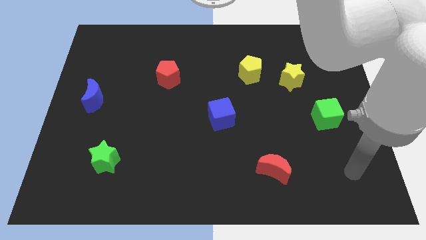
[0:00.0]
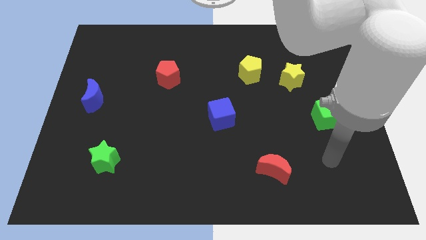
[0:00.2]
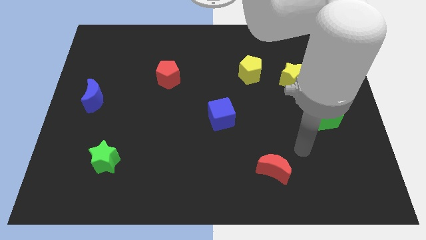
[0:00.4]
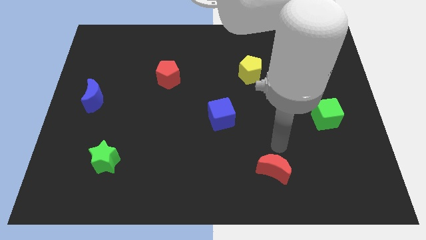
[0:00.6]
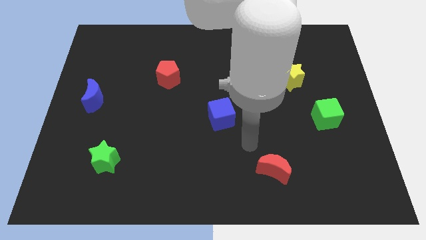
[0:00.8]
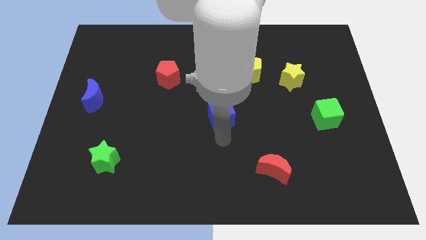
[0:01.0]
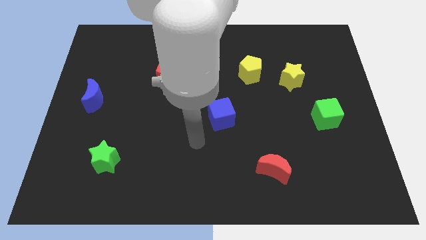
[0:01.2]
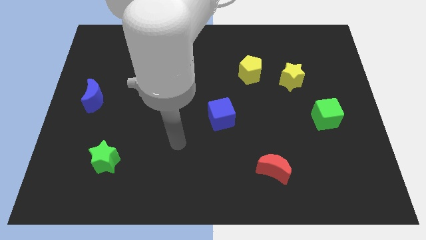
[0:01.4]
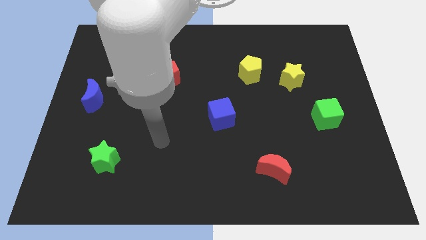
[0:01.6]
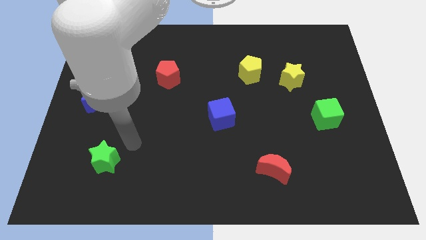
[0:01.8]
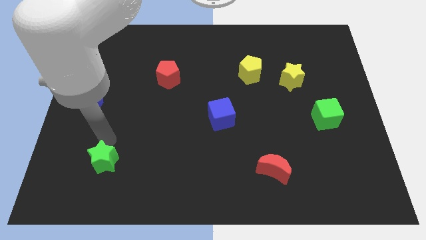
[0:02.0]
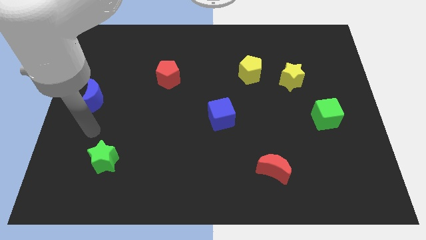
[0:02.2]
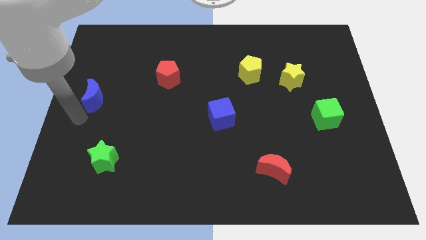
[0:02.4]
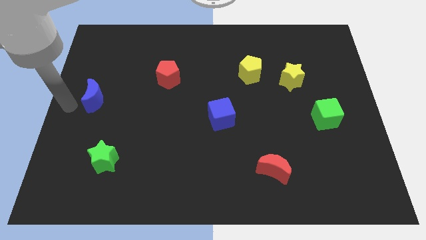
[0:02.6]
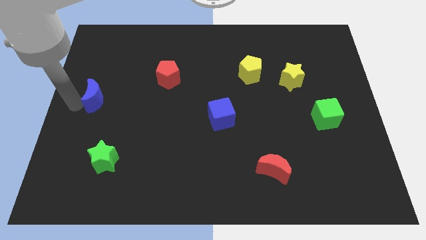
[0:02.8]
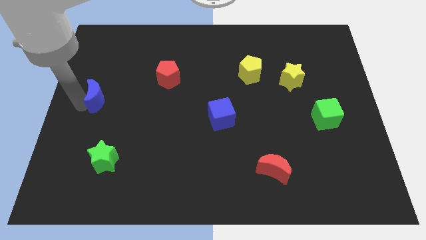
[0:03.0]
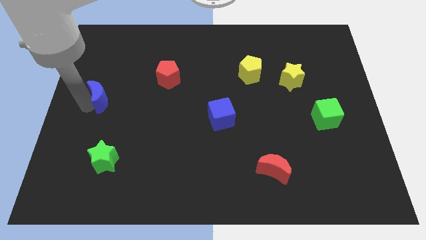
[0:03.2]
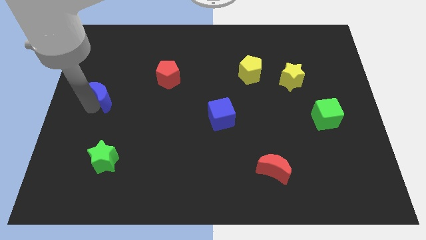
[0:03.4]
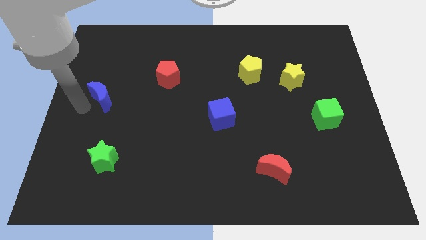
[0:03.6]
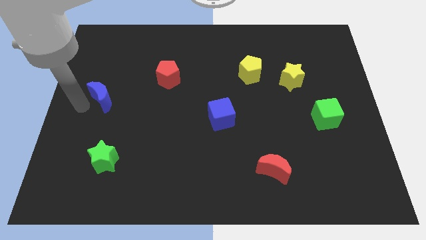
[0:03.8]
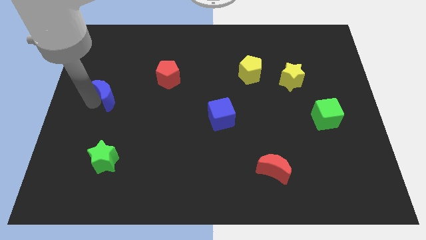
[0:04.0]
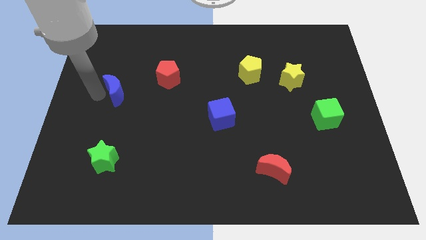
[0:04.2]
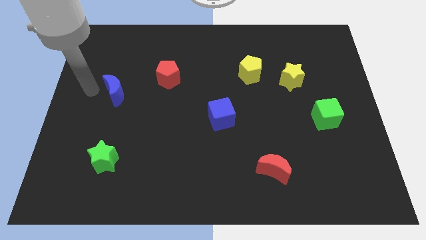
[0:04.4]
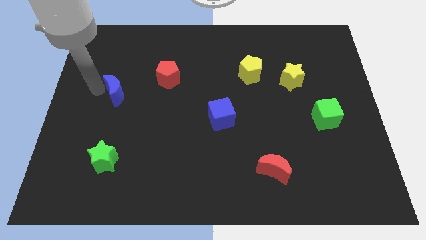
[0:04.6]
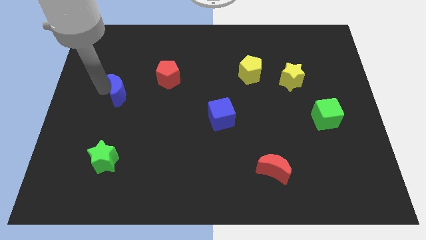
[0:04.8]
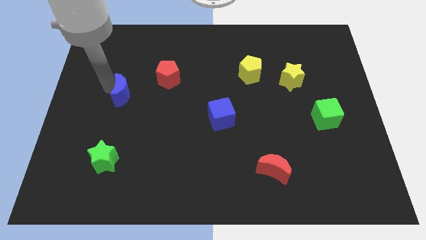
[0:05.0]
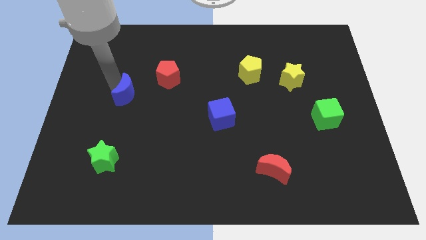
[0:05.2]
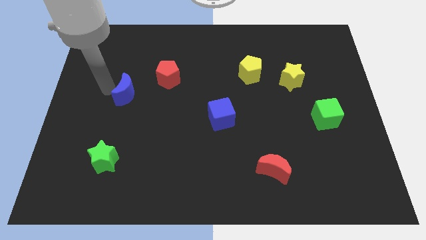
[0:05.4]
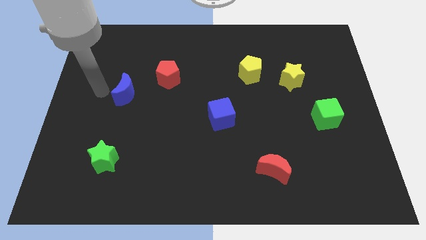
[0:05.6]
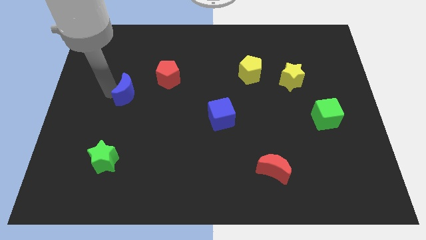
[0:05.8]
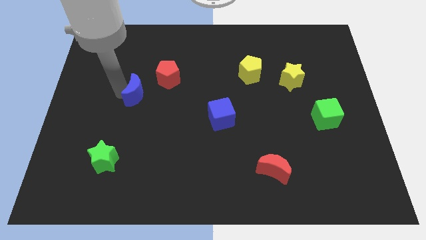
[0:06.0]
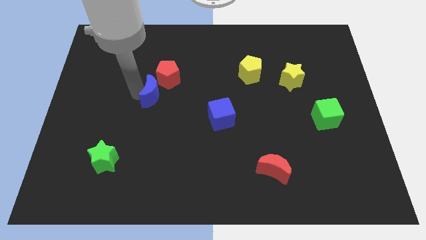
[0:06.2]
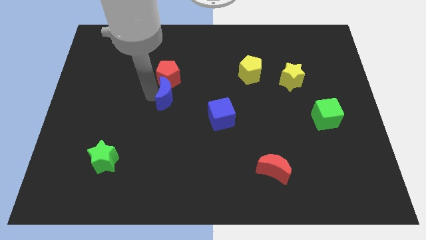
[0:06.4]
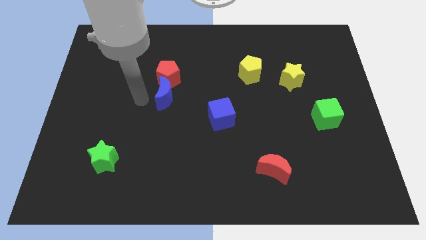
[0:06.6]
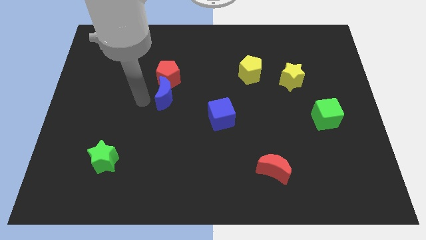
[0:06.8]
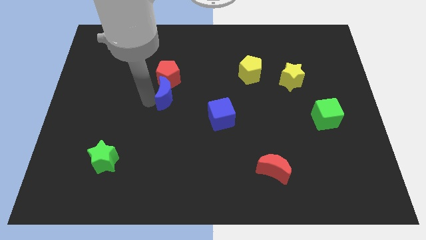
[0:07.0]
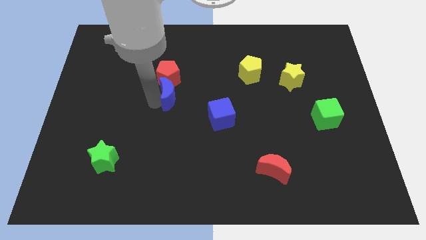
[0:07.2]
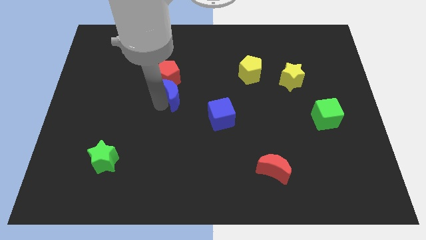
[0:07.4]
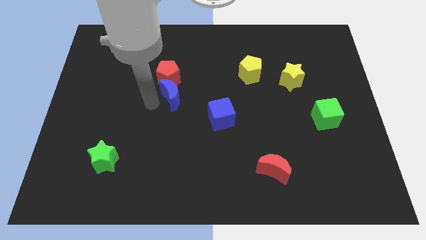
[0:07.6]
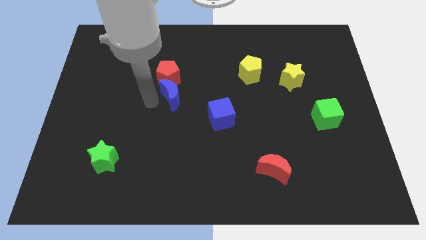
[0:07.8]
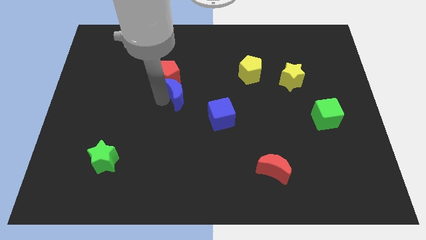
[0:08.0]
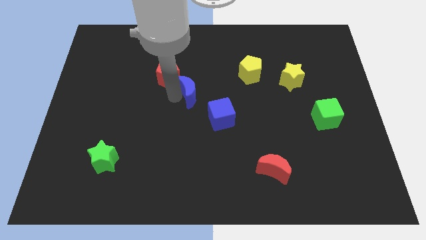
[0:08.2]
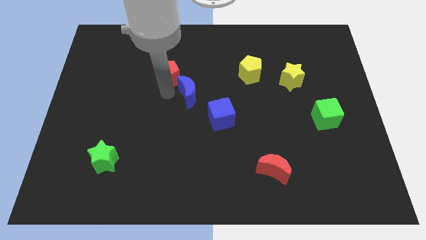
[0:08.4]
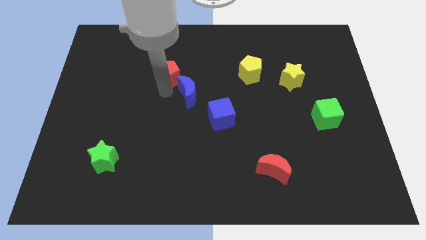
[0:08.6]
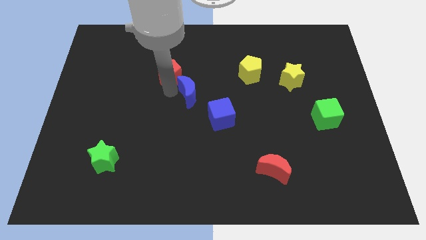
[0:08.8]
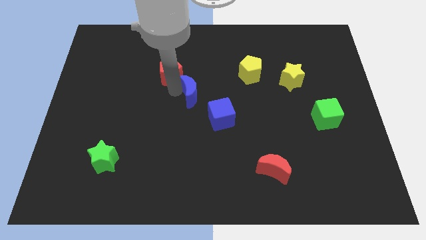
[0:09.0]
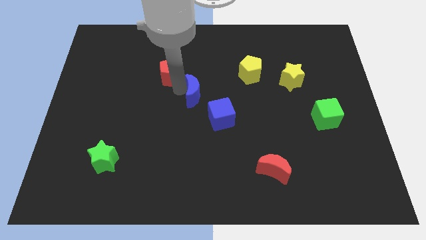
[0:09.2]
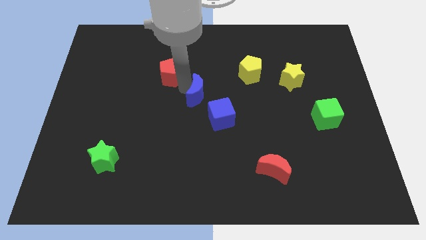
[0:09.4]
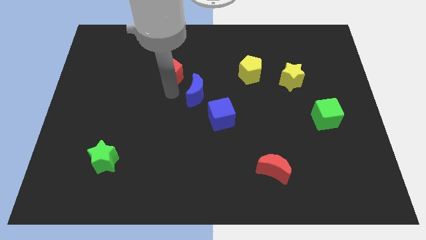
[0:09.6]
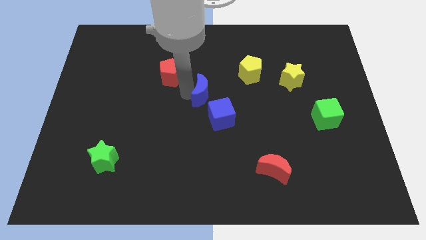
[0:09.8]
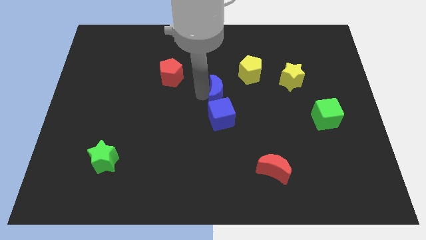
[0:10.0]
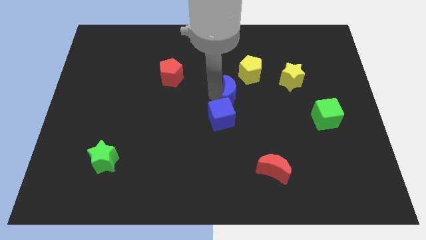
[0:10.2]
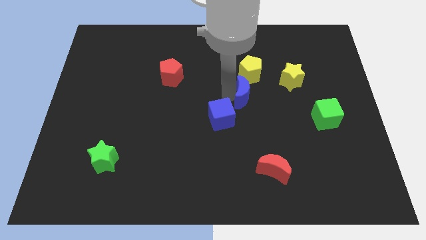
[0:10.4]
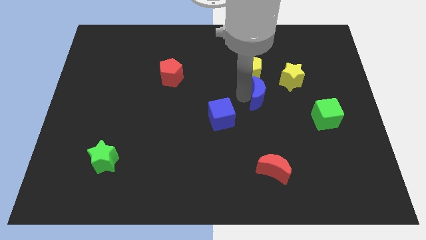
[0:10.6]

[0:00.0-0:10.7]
put the blue moon to the bottom left of the yellow star
